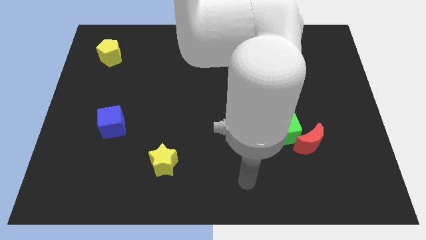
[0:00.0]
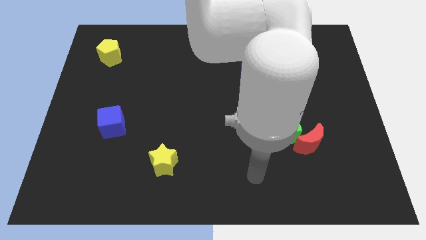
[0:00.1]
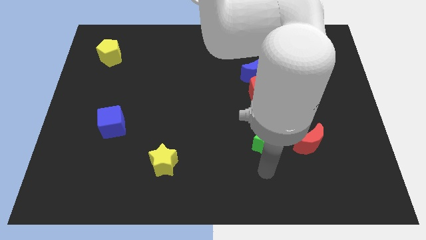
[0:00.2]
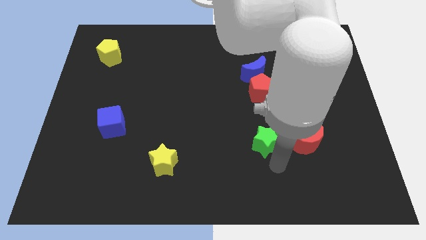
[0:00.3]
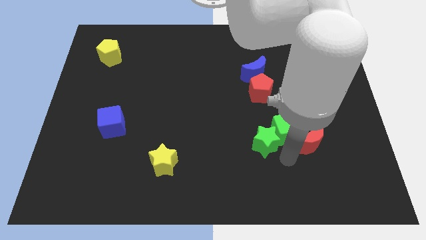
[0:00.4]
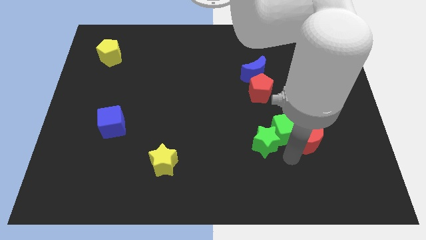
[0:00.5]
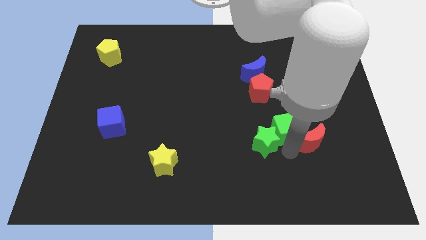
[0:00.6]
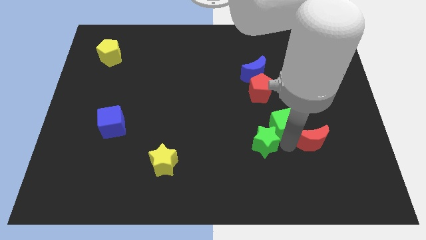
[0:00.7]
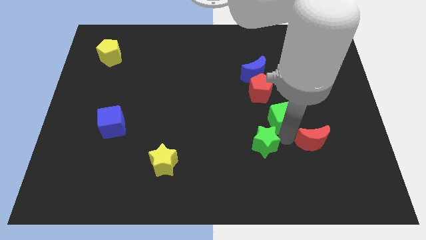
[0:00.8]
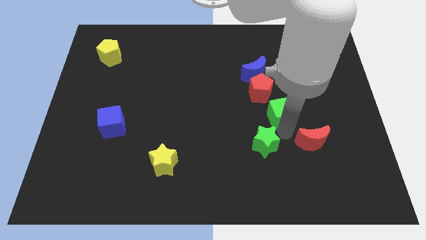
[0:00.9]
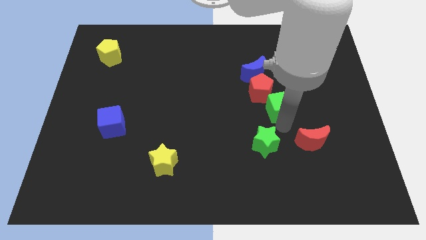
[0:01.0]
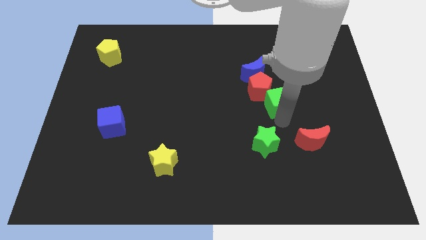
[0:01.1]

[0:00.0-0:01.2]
pull the green cube apart from the green star and red moon

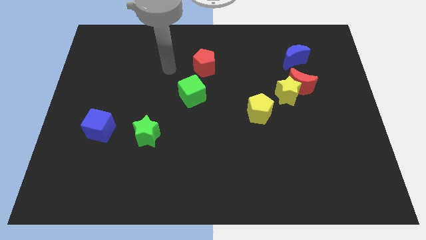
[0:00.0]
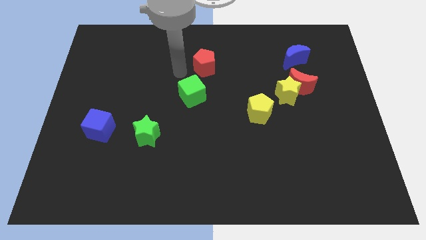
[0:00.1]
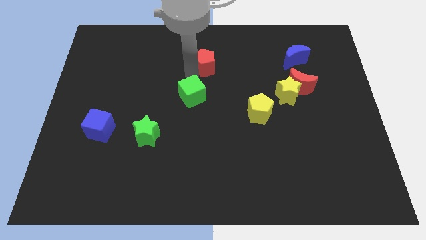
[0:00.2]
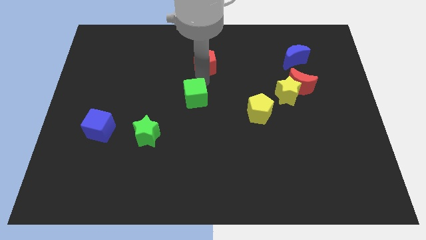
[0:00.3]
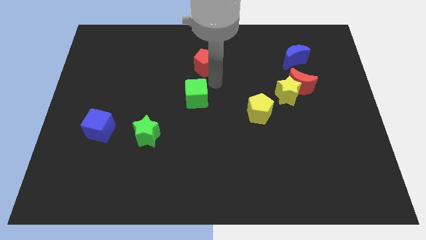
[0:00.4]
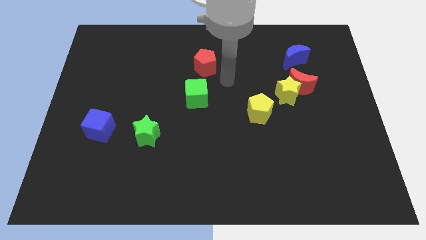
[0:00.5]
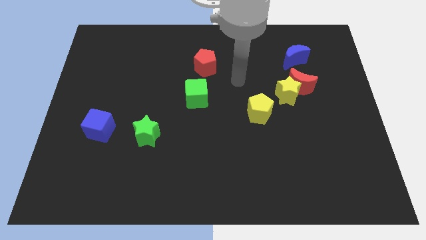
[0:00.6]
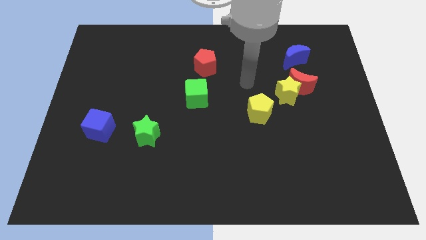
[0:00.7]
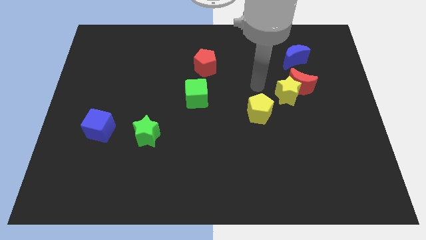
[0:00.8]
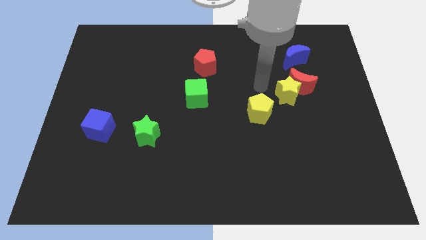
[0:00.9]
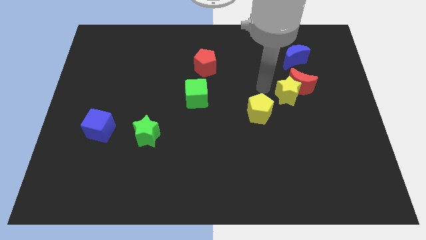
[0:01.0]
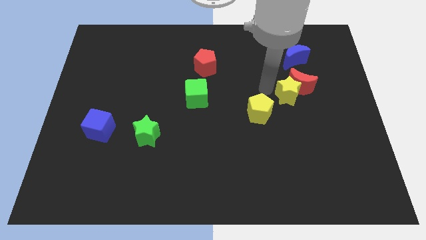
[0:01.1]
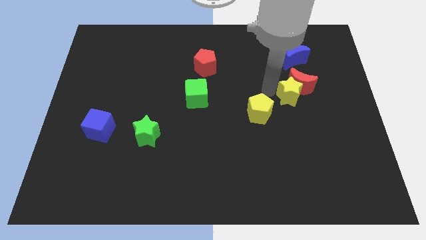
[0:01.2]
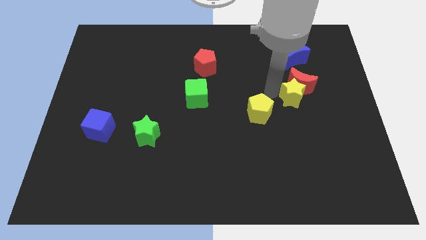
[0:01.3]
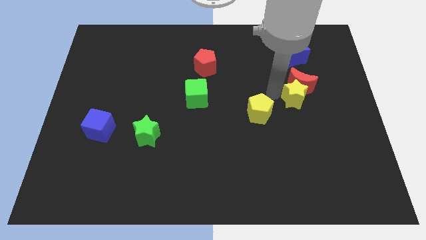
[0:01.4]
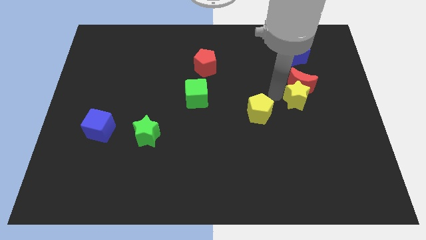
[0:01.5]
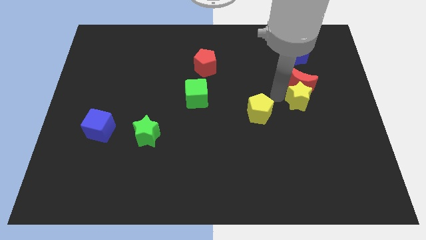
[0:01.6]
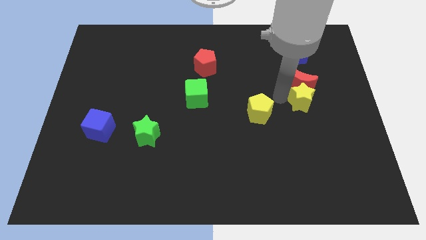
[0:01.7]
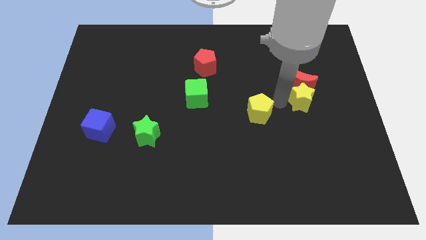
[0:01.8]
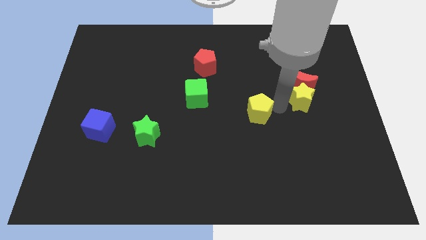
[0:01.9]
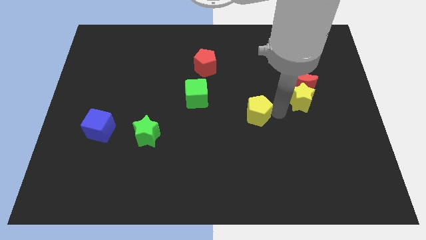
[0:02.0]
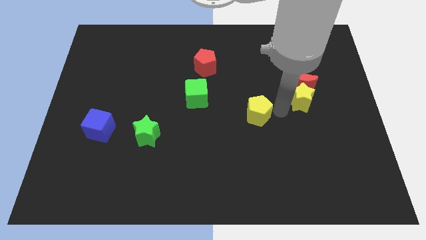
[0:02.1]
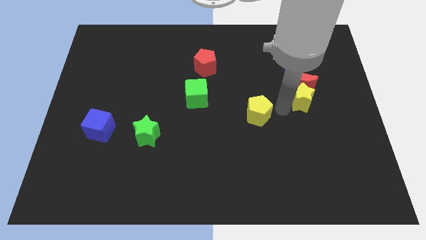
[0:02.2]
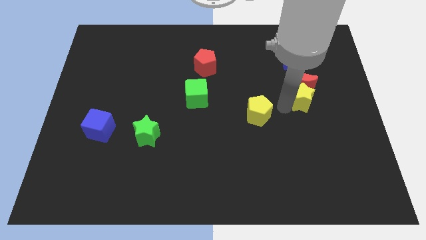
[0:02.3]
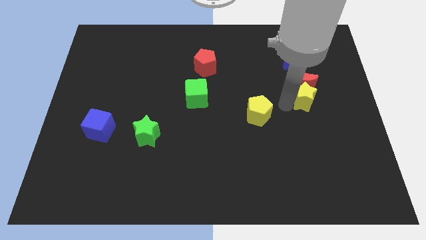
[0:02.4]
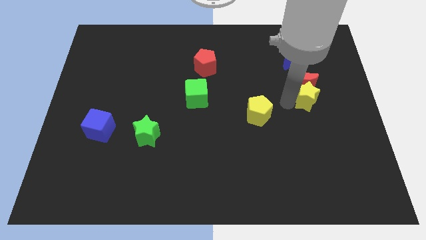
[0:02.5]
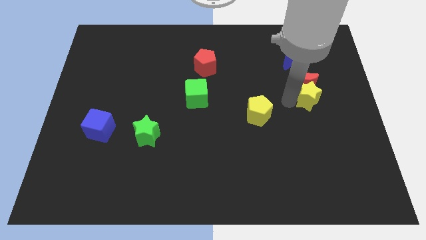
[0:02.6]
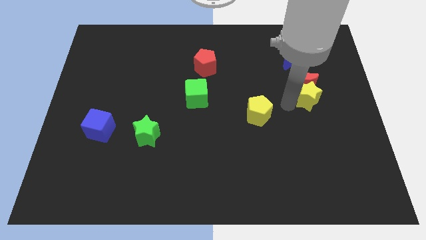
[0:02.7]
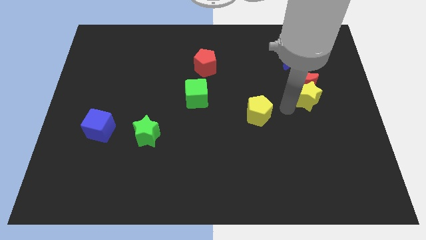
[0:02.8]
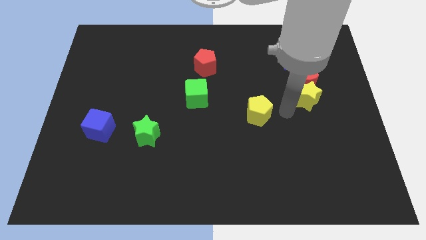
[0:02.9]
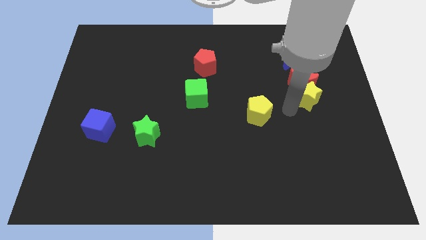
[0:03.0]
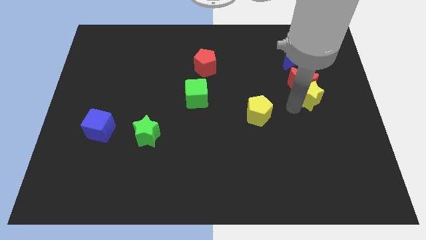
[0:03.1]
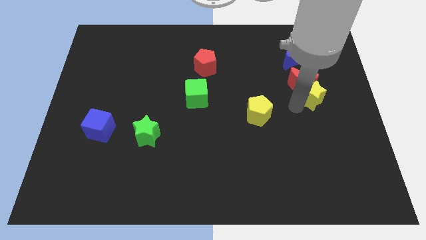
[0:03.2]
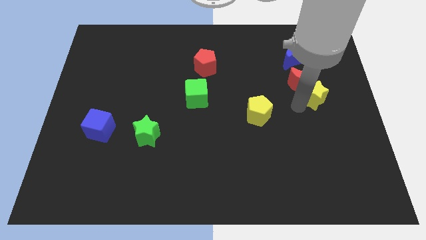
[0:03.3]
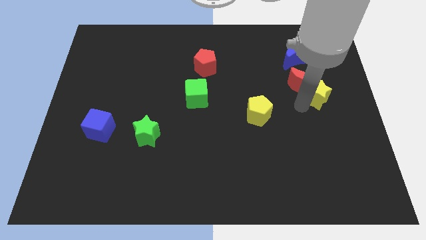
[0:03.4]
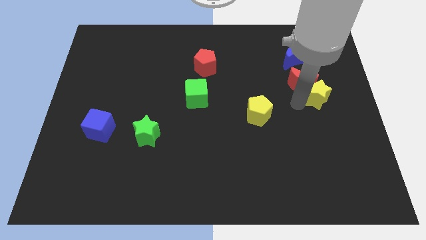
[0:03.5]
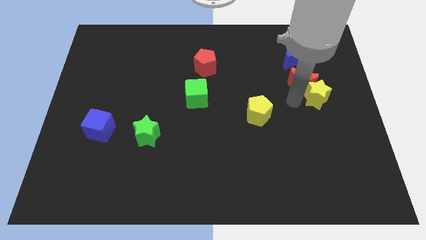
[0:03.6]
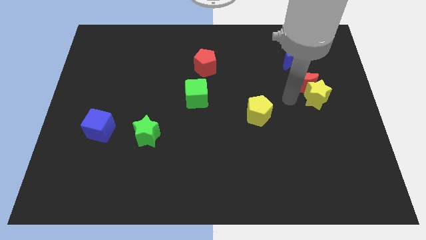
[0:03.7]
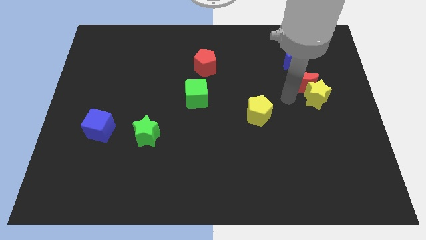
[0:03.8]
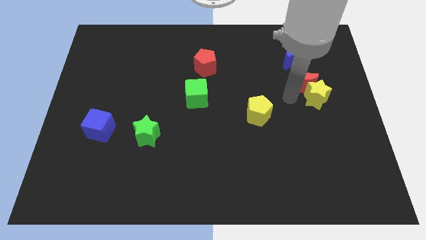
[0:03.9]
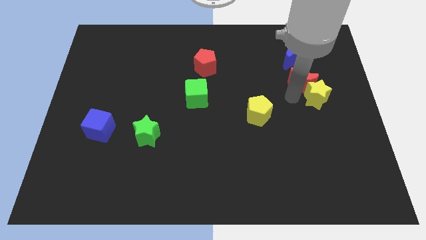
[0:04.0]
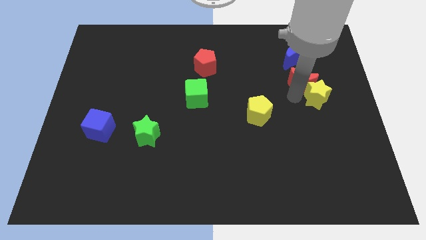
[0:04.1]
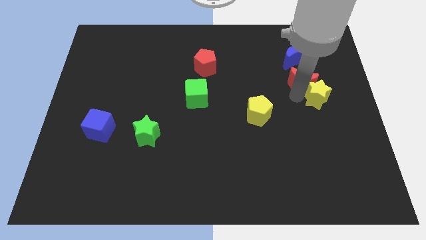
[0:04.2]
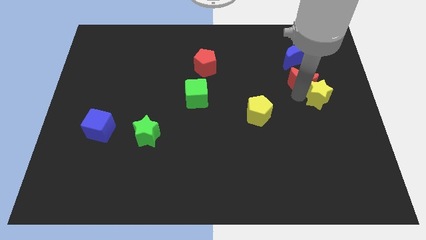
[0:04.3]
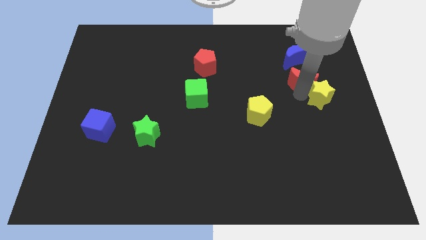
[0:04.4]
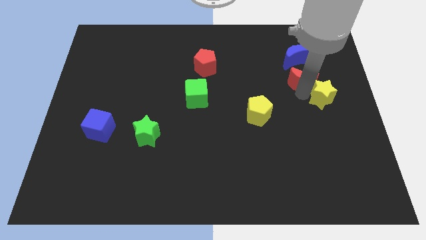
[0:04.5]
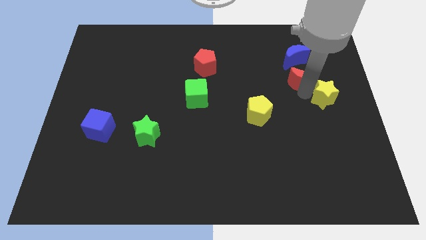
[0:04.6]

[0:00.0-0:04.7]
separate the yellow star from the red moon and yellow pentagon

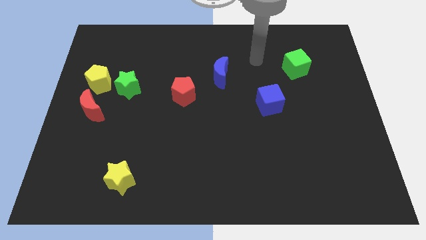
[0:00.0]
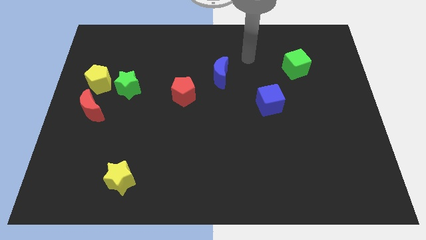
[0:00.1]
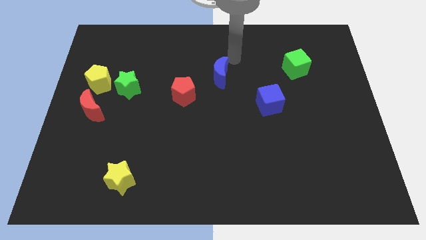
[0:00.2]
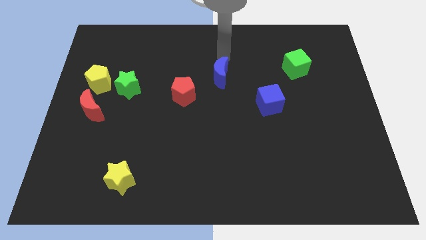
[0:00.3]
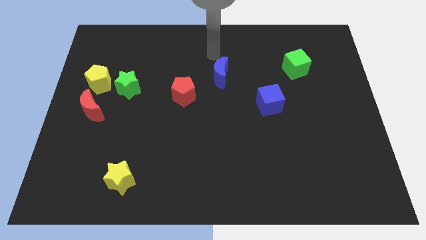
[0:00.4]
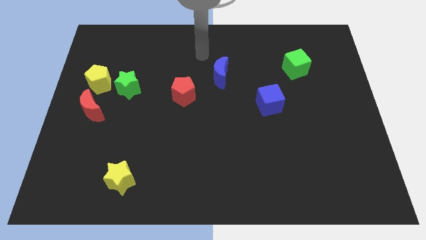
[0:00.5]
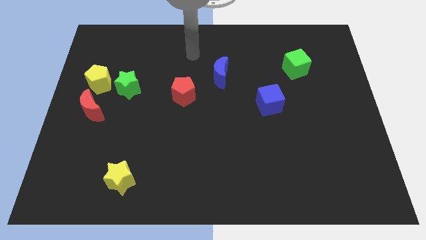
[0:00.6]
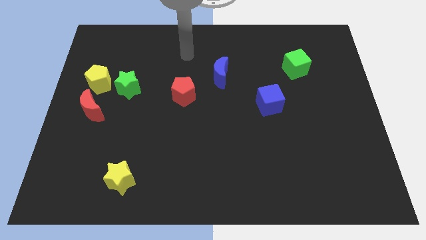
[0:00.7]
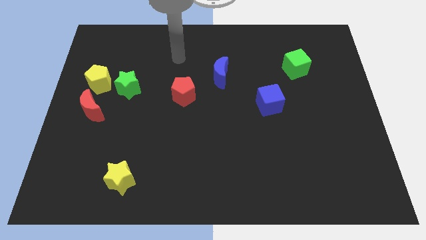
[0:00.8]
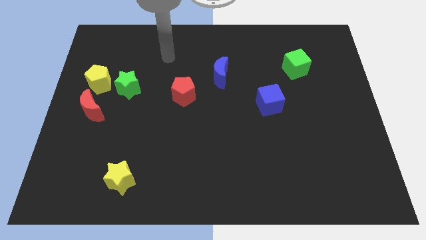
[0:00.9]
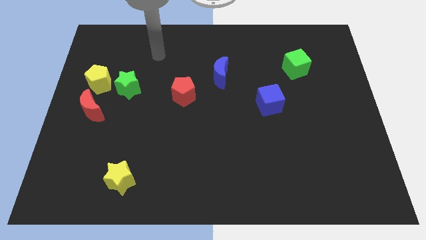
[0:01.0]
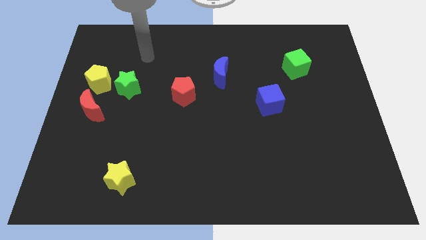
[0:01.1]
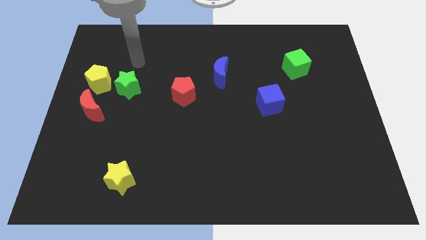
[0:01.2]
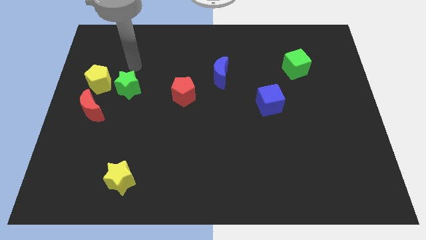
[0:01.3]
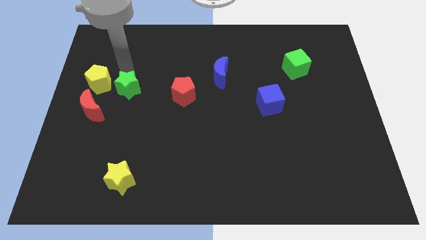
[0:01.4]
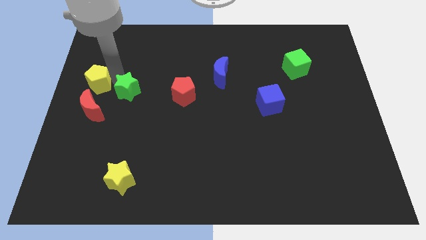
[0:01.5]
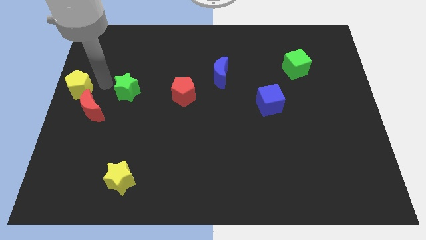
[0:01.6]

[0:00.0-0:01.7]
separate the green star from the yellow pentagon

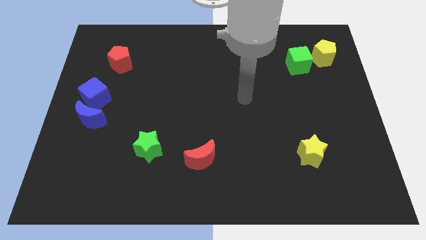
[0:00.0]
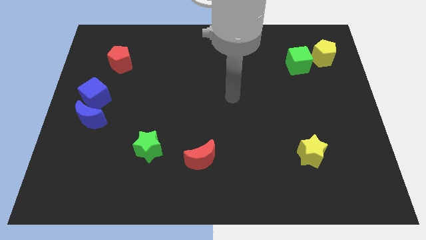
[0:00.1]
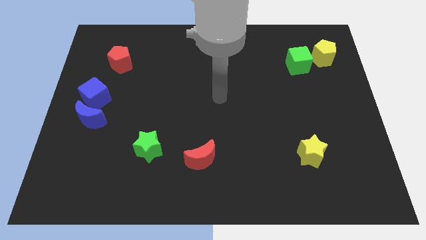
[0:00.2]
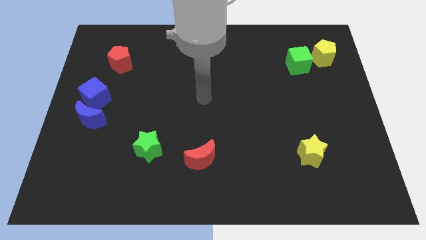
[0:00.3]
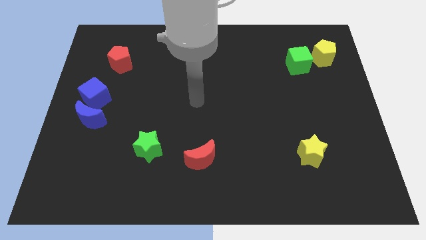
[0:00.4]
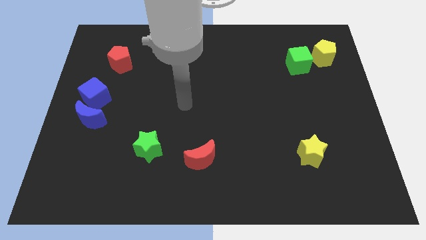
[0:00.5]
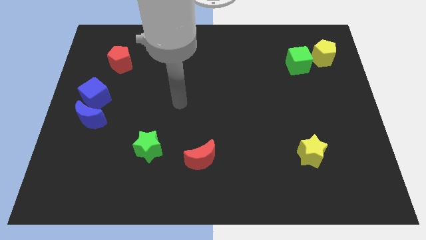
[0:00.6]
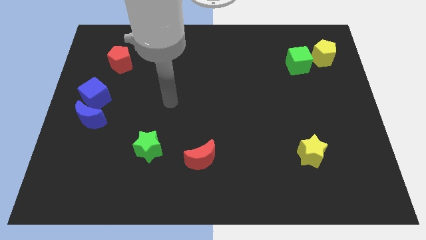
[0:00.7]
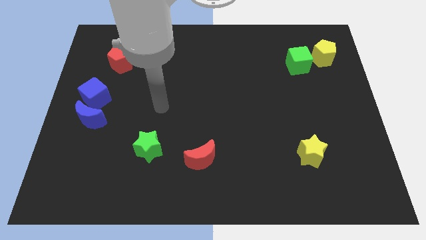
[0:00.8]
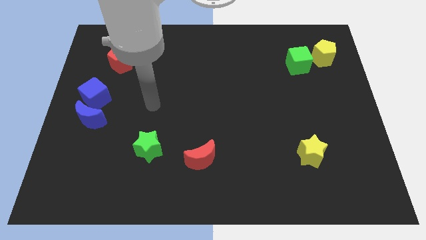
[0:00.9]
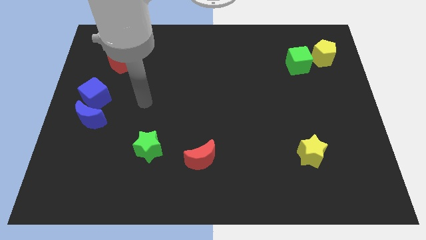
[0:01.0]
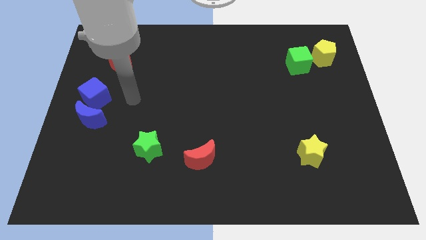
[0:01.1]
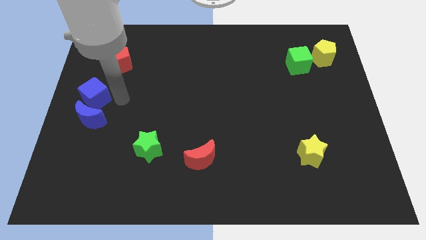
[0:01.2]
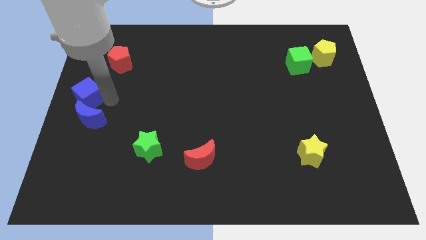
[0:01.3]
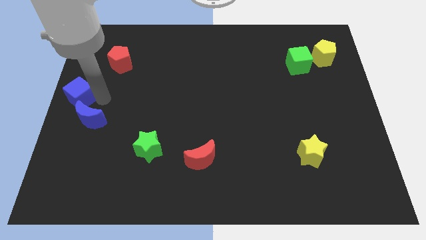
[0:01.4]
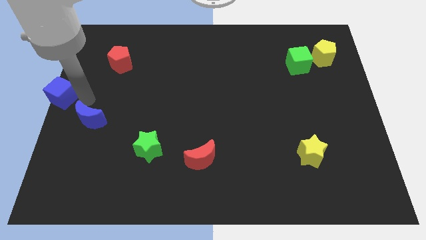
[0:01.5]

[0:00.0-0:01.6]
pull the blue moon apart from the blue cube

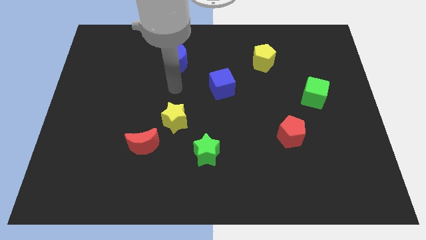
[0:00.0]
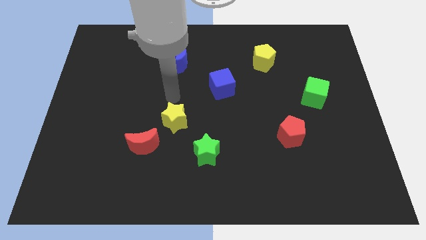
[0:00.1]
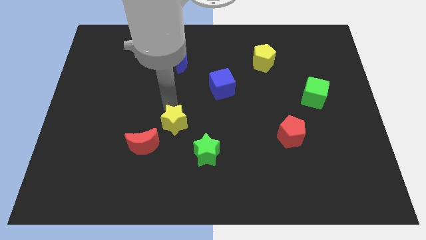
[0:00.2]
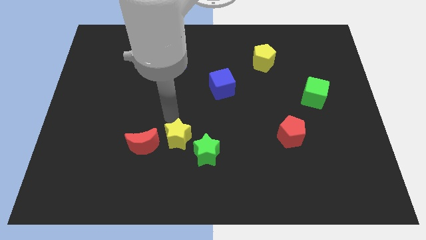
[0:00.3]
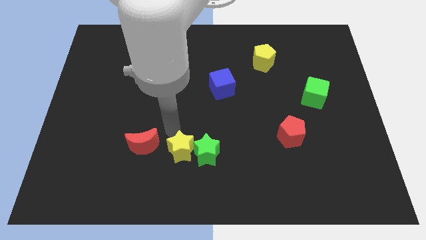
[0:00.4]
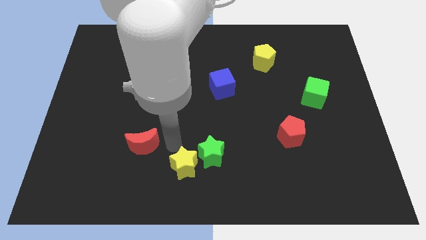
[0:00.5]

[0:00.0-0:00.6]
separate the red moon from the yellow star
